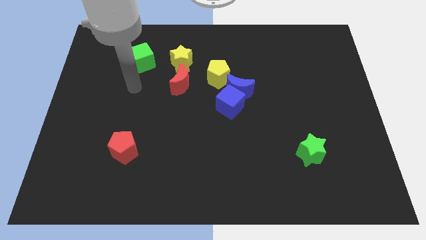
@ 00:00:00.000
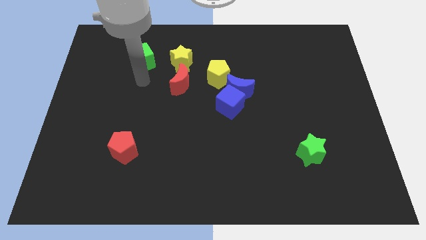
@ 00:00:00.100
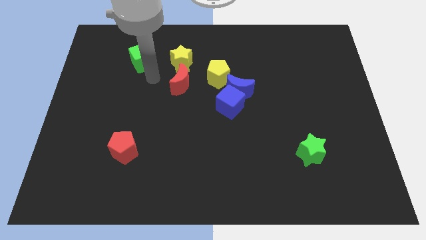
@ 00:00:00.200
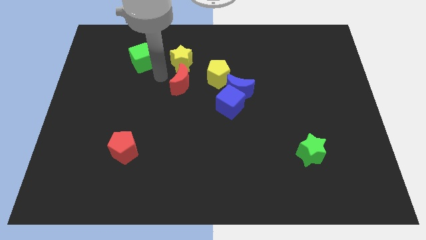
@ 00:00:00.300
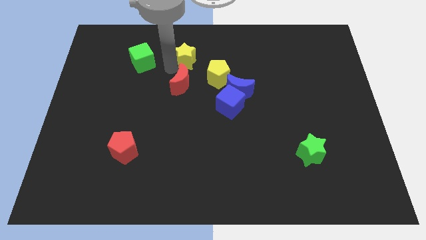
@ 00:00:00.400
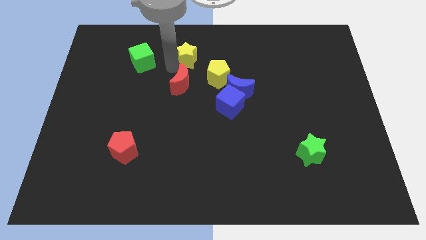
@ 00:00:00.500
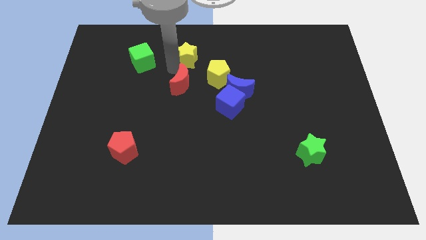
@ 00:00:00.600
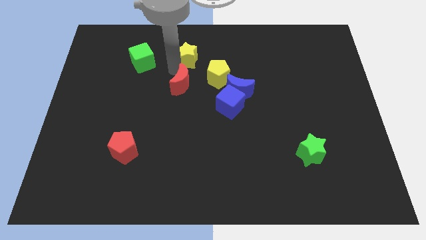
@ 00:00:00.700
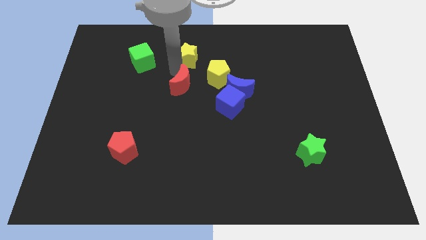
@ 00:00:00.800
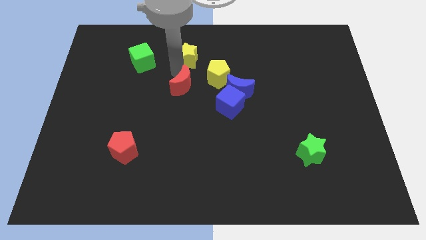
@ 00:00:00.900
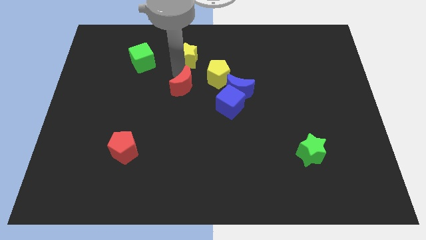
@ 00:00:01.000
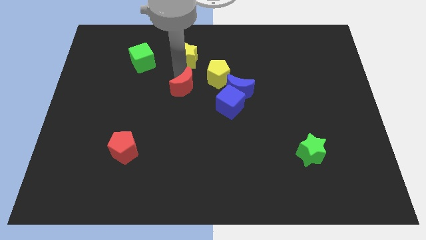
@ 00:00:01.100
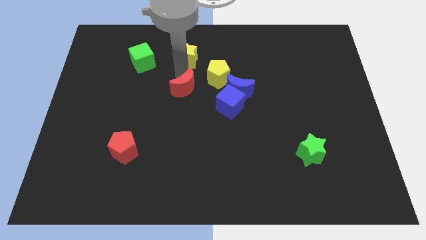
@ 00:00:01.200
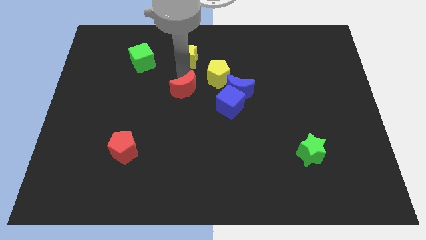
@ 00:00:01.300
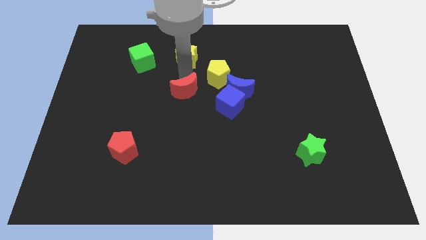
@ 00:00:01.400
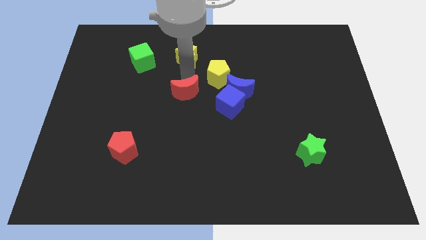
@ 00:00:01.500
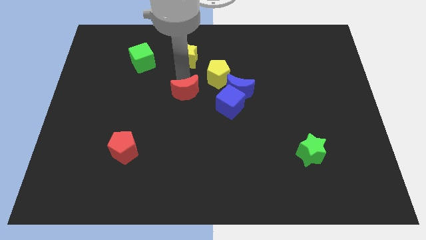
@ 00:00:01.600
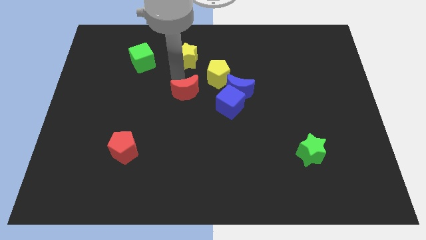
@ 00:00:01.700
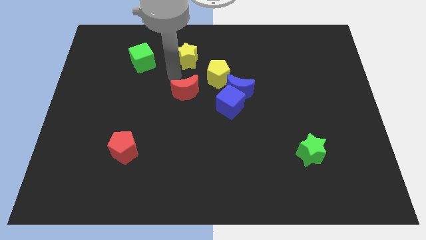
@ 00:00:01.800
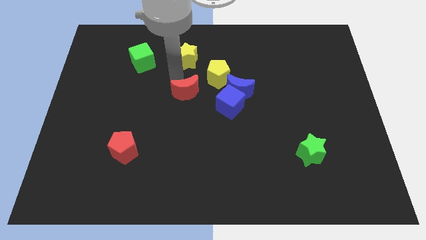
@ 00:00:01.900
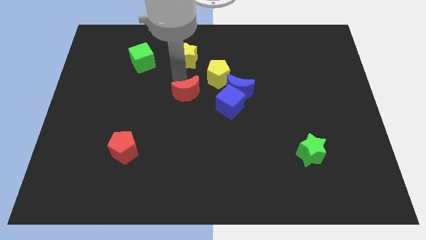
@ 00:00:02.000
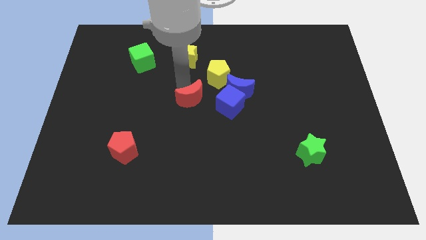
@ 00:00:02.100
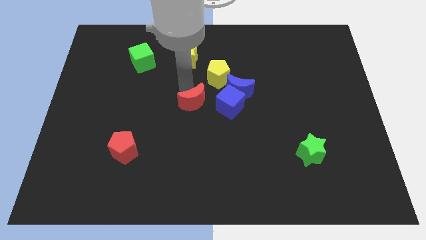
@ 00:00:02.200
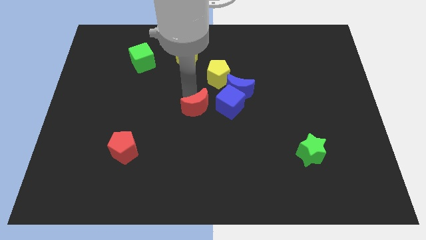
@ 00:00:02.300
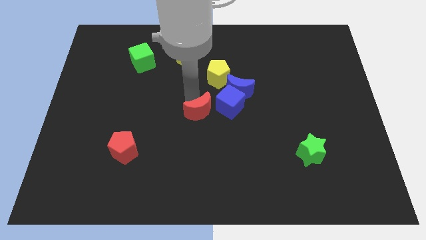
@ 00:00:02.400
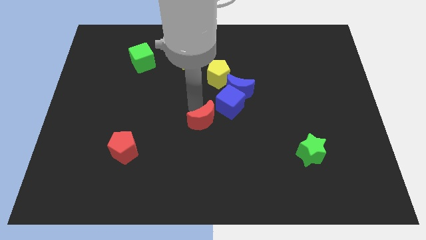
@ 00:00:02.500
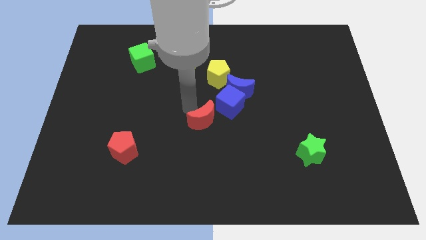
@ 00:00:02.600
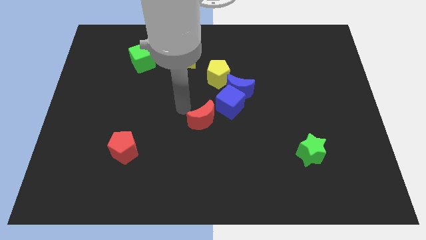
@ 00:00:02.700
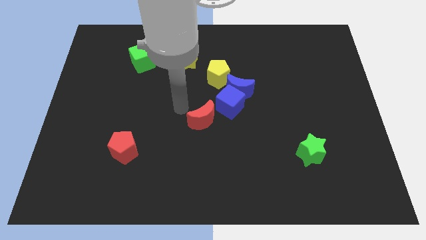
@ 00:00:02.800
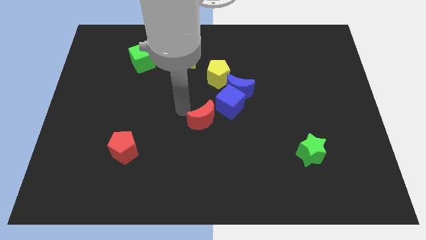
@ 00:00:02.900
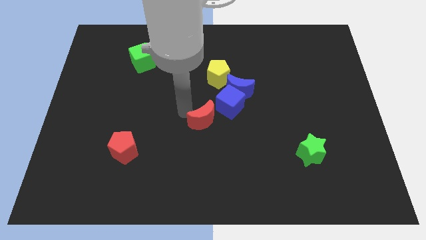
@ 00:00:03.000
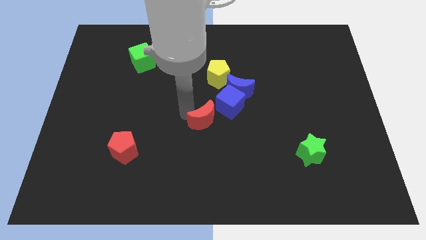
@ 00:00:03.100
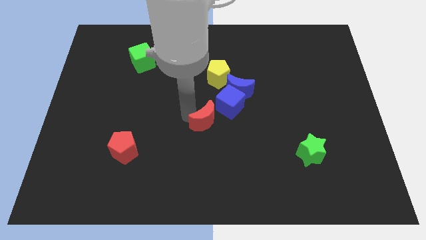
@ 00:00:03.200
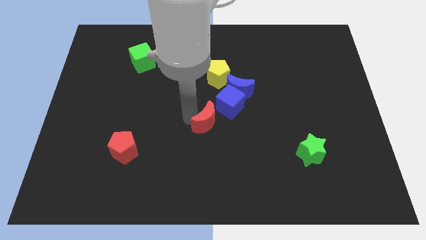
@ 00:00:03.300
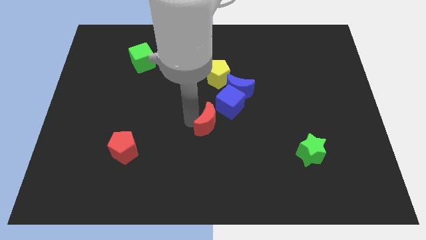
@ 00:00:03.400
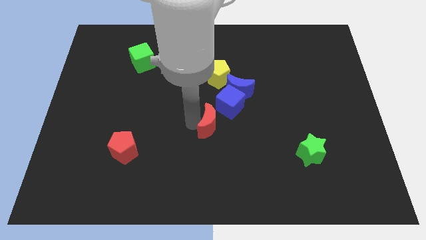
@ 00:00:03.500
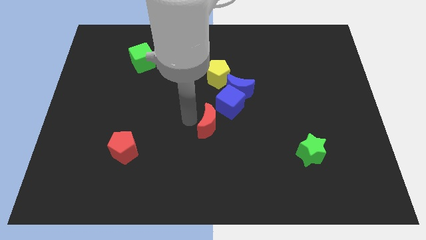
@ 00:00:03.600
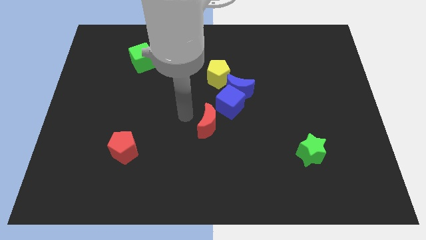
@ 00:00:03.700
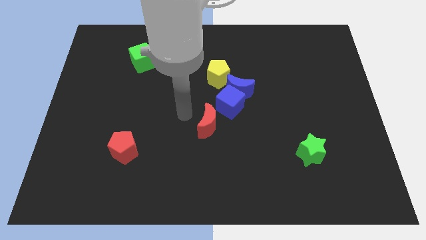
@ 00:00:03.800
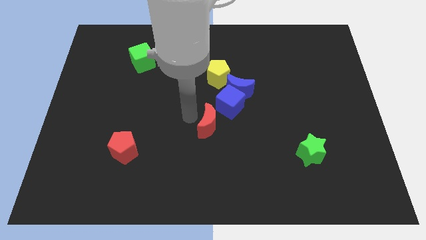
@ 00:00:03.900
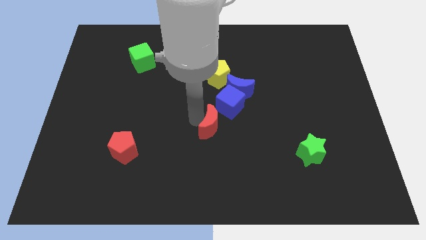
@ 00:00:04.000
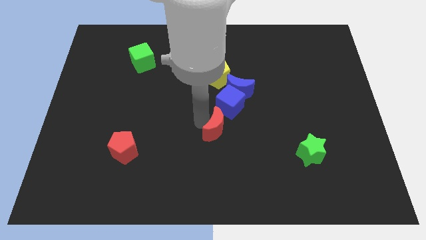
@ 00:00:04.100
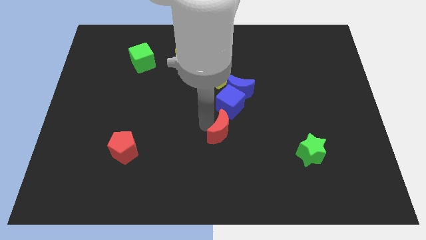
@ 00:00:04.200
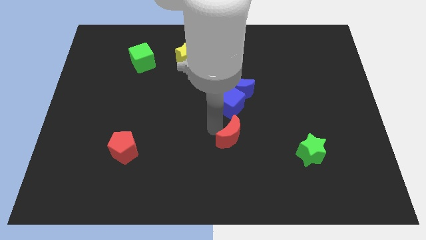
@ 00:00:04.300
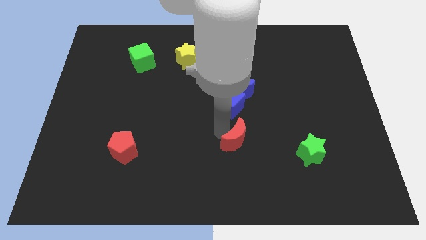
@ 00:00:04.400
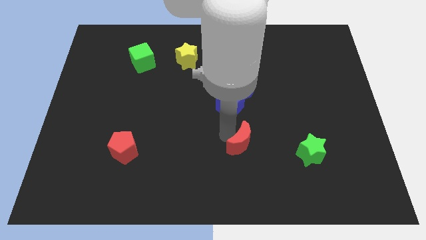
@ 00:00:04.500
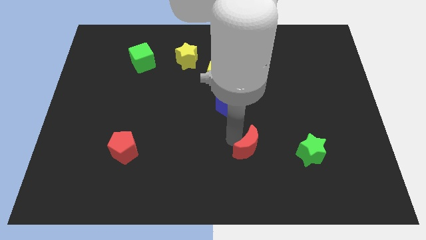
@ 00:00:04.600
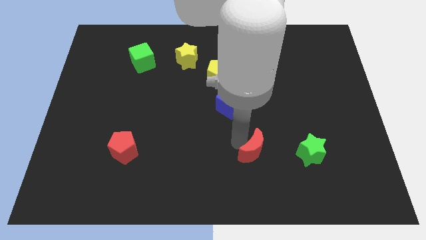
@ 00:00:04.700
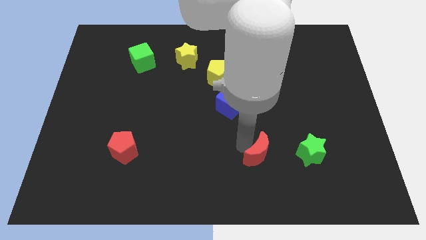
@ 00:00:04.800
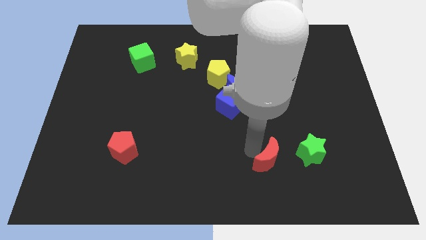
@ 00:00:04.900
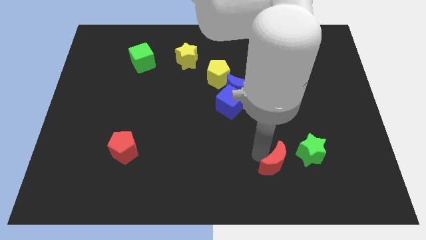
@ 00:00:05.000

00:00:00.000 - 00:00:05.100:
slide the red moon to the bottom left of the green star

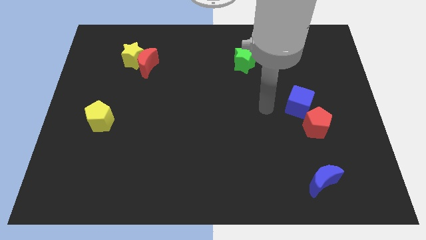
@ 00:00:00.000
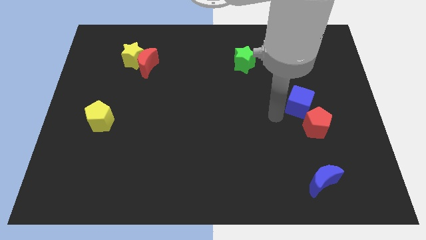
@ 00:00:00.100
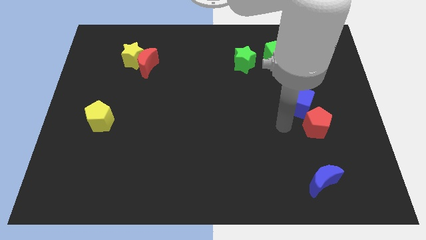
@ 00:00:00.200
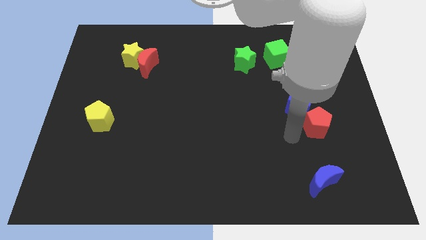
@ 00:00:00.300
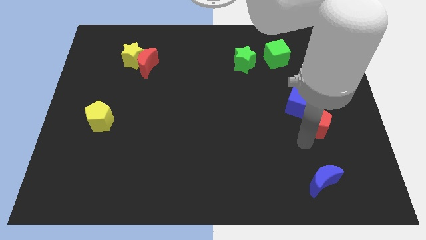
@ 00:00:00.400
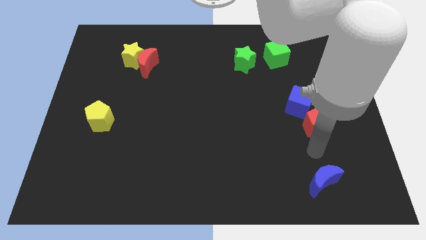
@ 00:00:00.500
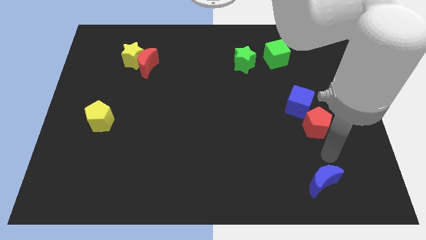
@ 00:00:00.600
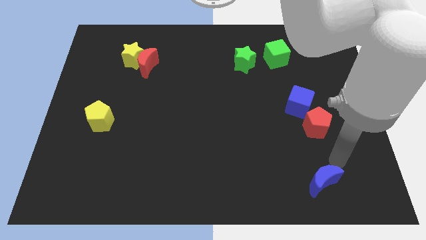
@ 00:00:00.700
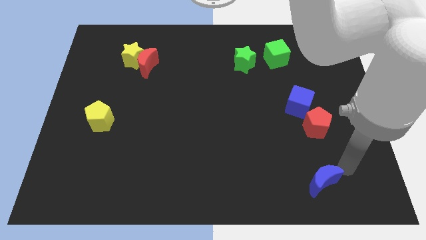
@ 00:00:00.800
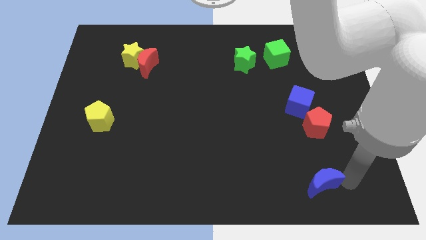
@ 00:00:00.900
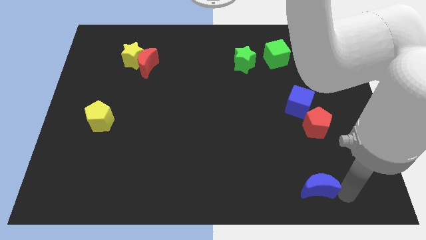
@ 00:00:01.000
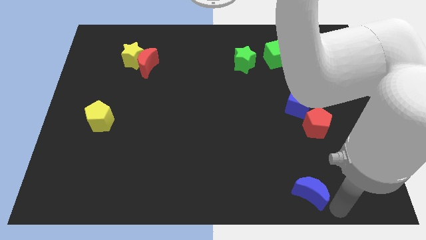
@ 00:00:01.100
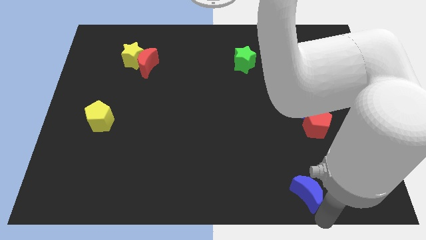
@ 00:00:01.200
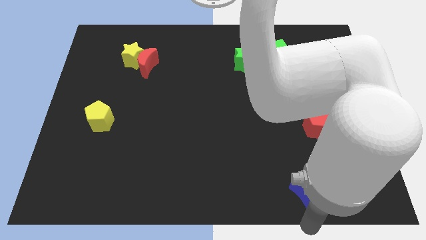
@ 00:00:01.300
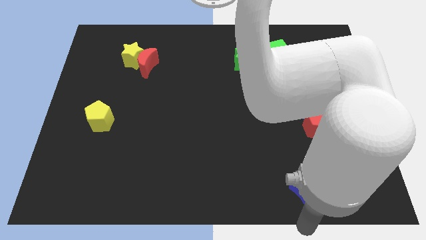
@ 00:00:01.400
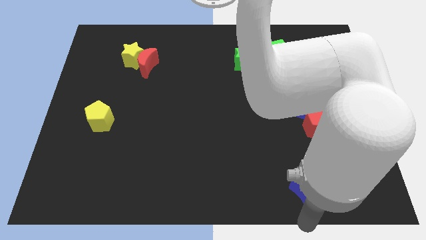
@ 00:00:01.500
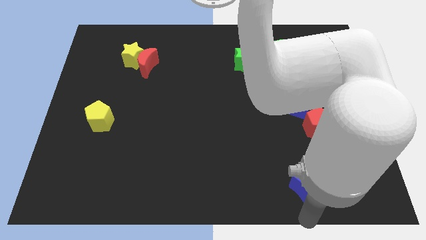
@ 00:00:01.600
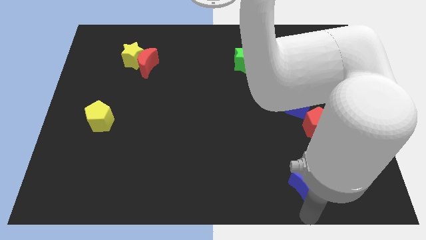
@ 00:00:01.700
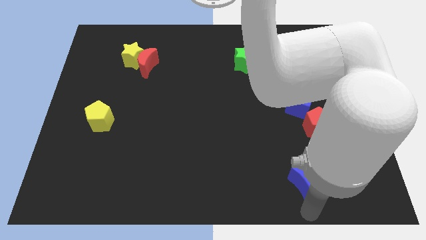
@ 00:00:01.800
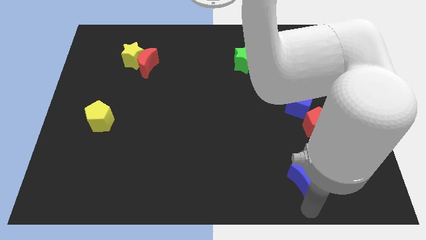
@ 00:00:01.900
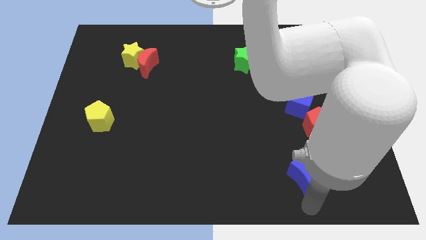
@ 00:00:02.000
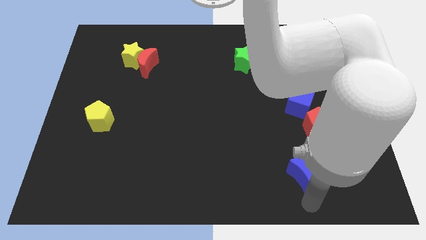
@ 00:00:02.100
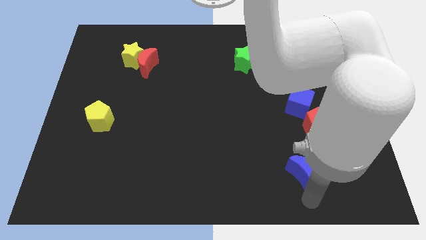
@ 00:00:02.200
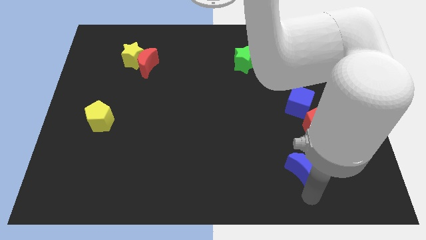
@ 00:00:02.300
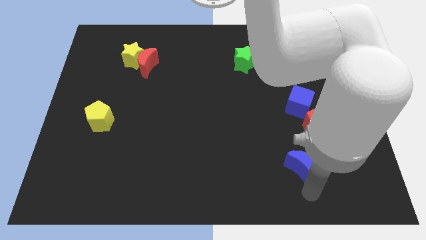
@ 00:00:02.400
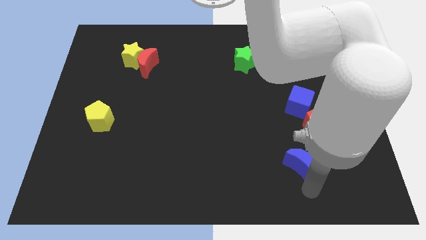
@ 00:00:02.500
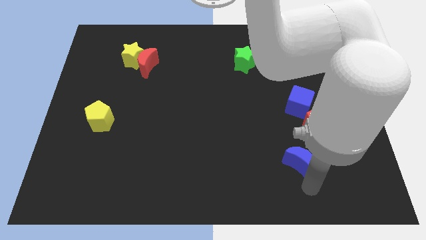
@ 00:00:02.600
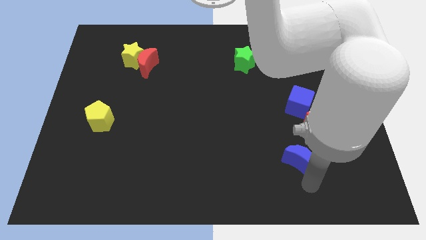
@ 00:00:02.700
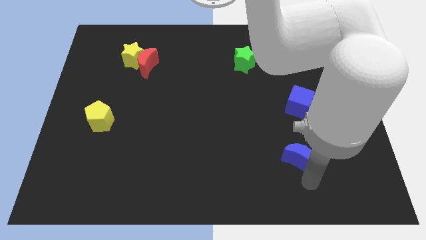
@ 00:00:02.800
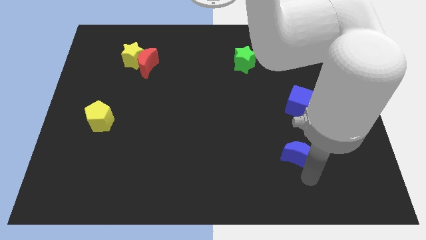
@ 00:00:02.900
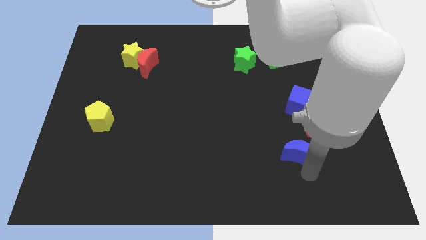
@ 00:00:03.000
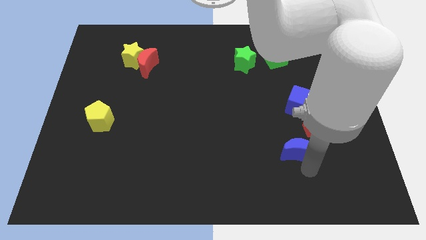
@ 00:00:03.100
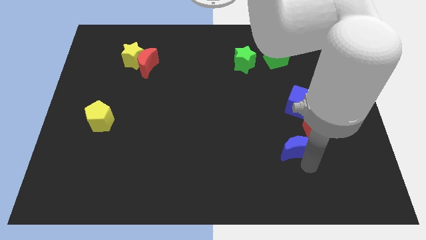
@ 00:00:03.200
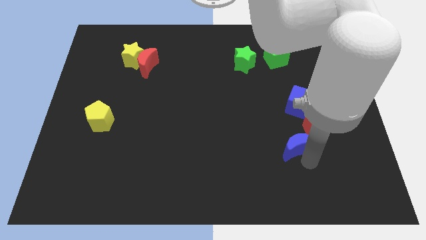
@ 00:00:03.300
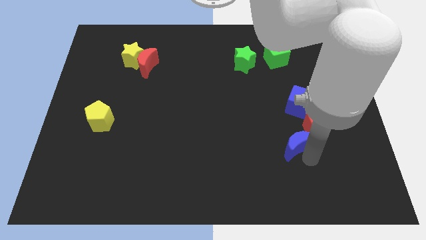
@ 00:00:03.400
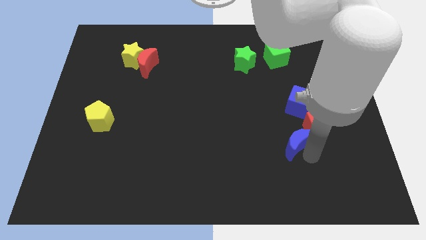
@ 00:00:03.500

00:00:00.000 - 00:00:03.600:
move the blue moon left of the red pentagon
